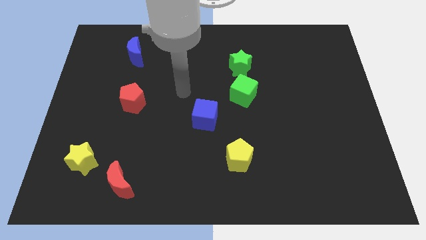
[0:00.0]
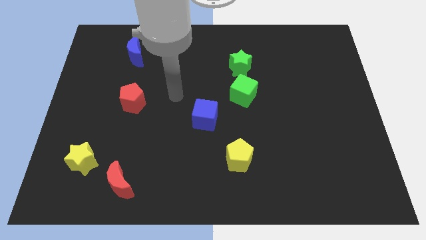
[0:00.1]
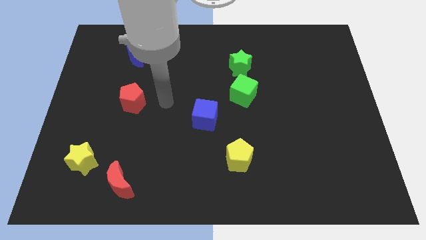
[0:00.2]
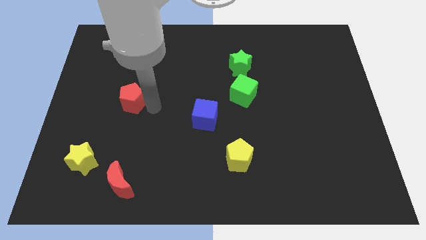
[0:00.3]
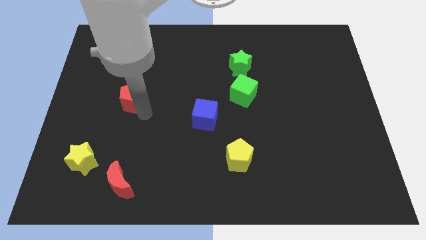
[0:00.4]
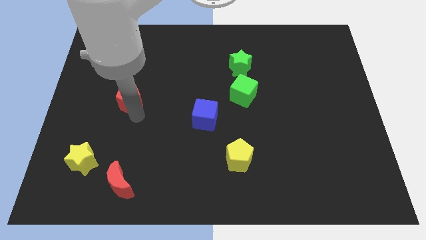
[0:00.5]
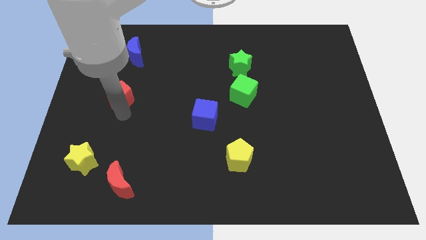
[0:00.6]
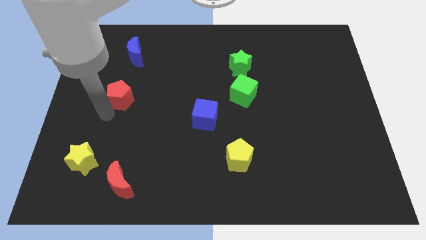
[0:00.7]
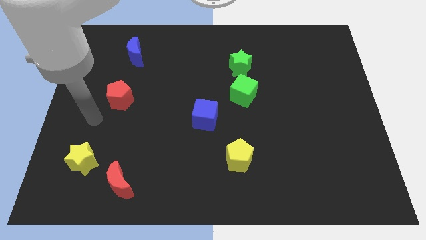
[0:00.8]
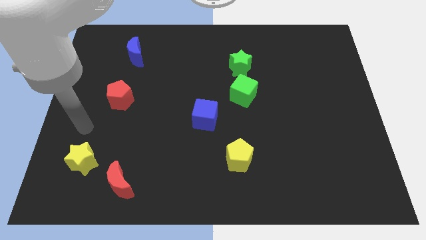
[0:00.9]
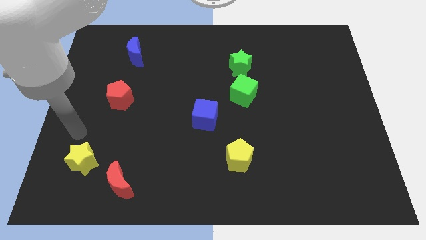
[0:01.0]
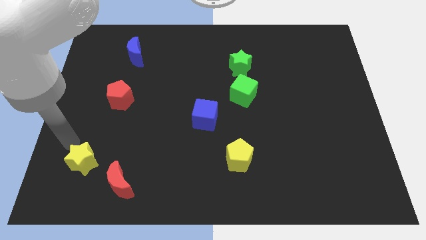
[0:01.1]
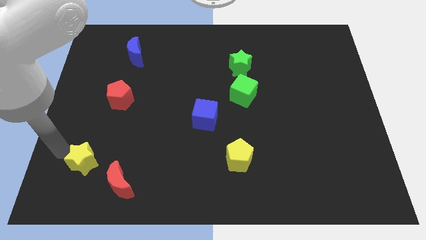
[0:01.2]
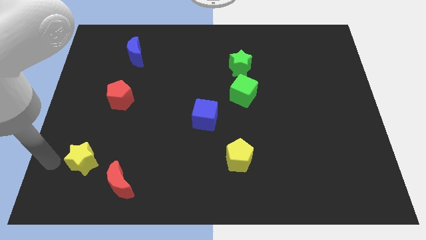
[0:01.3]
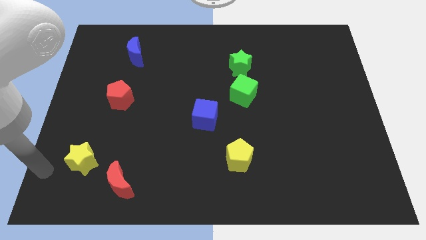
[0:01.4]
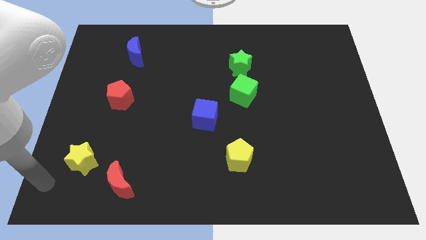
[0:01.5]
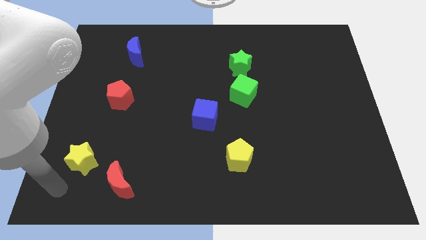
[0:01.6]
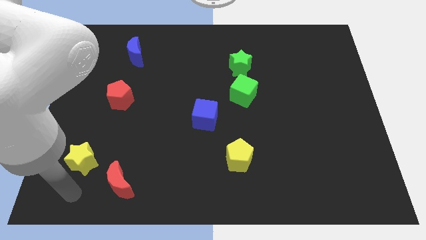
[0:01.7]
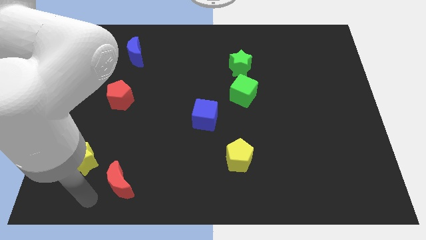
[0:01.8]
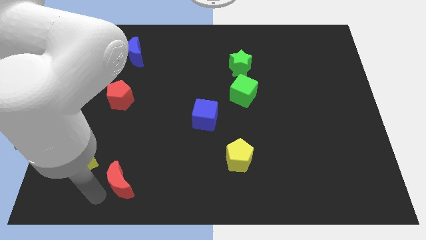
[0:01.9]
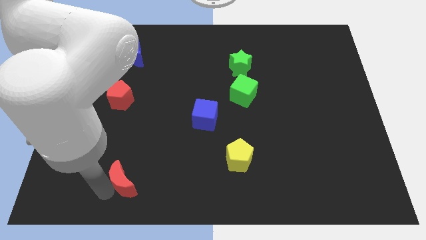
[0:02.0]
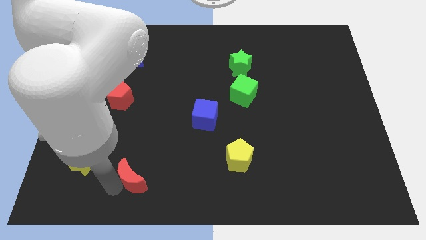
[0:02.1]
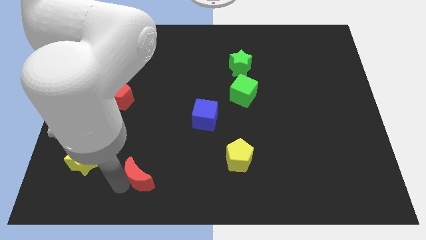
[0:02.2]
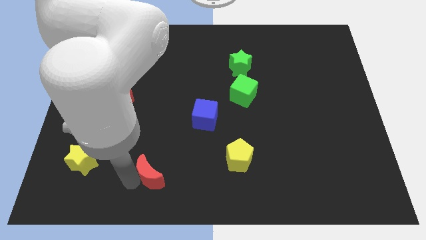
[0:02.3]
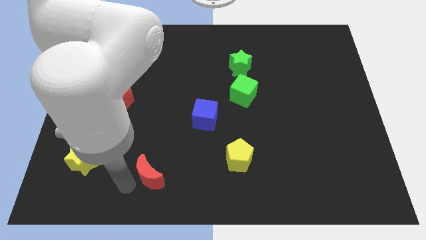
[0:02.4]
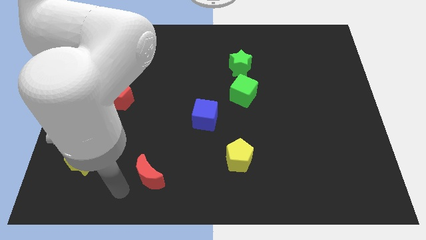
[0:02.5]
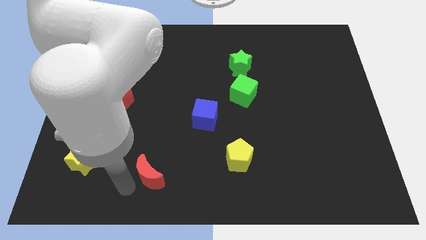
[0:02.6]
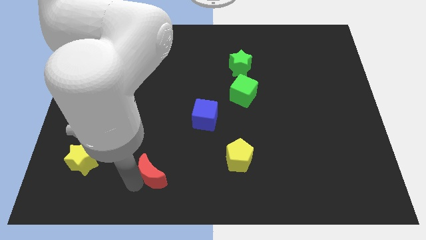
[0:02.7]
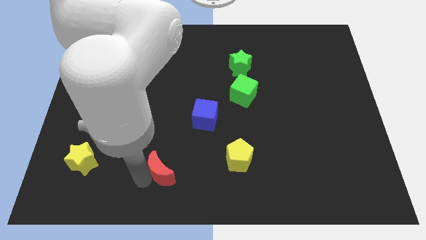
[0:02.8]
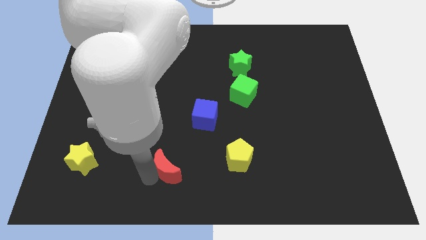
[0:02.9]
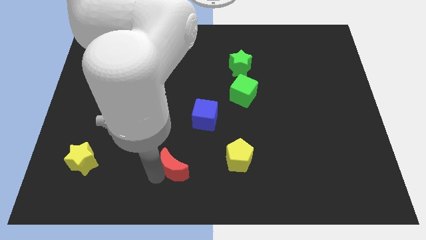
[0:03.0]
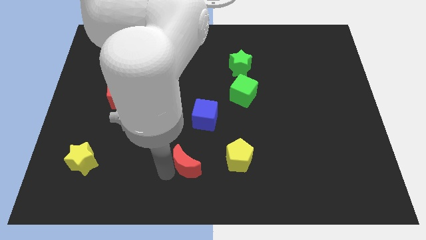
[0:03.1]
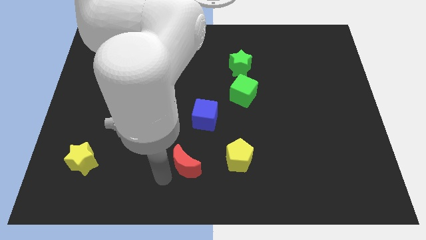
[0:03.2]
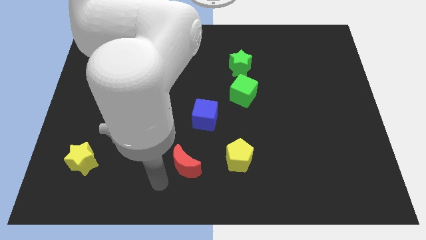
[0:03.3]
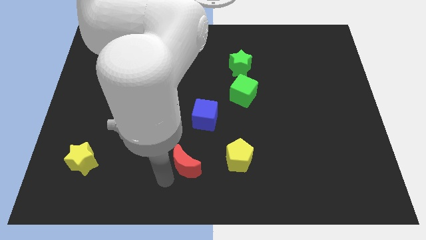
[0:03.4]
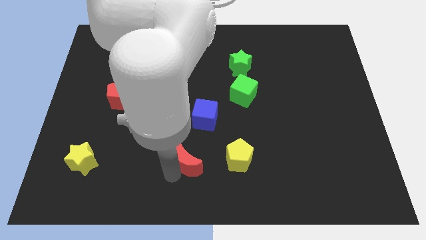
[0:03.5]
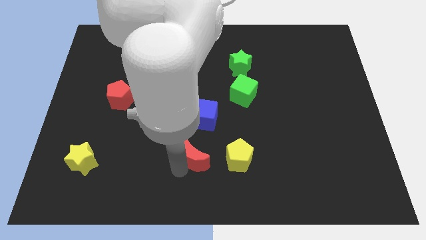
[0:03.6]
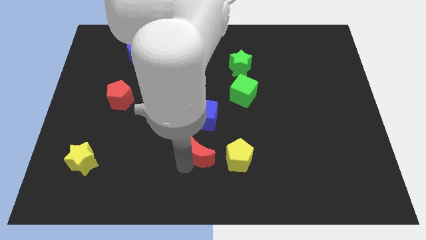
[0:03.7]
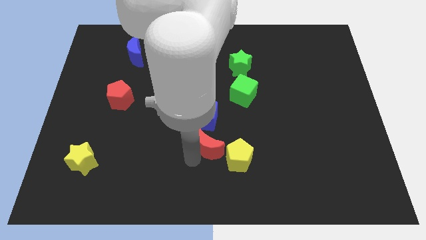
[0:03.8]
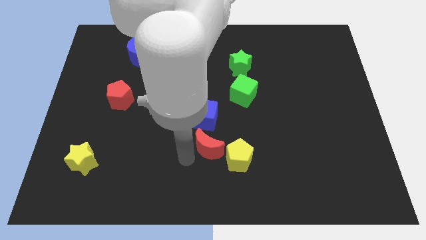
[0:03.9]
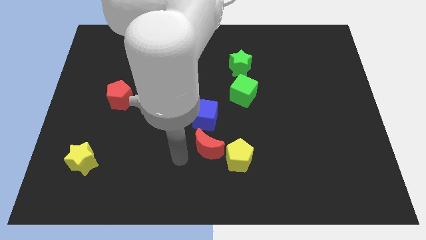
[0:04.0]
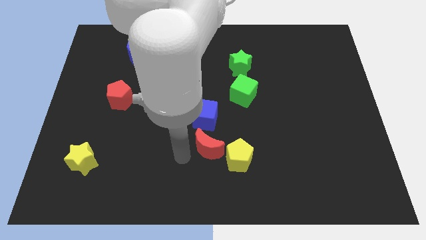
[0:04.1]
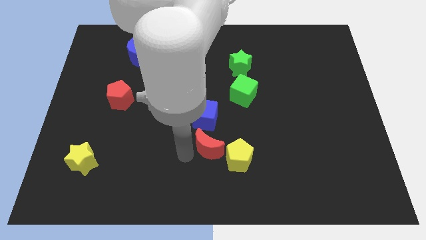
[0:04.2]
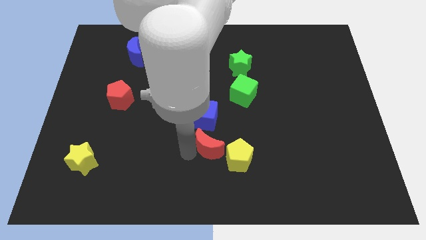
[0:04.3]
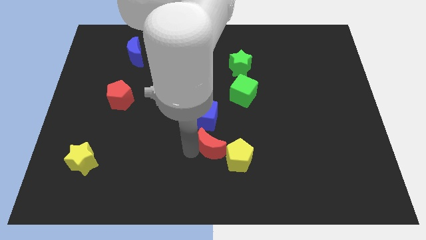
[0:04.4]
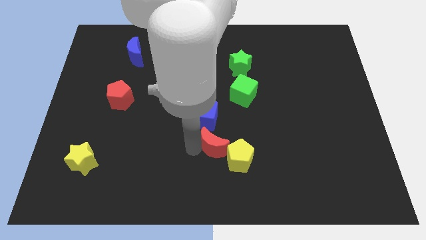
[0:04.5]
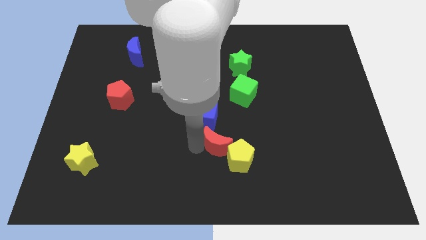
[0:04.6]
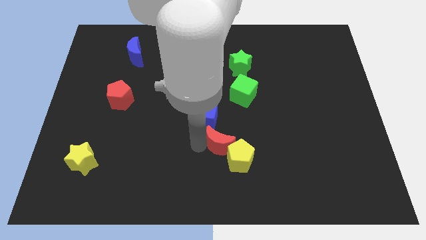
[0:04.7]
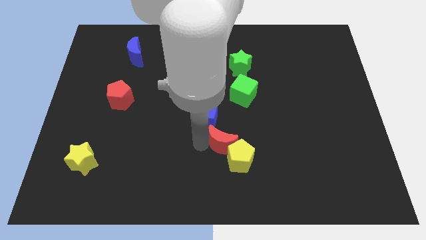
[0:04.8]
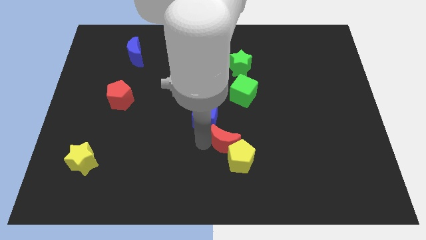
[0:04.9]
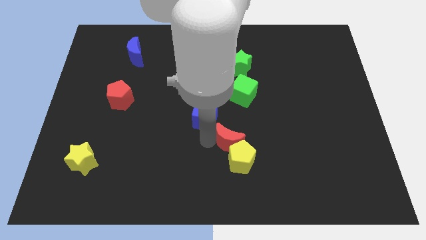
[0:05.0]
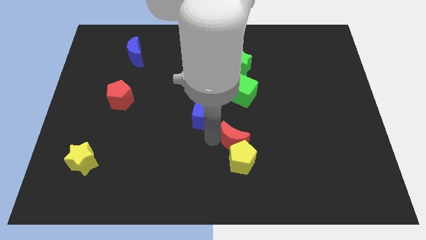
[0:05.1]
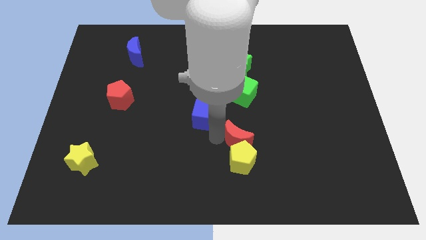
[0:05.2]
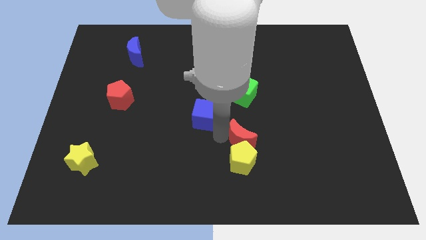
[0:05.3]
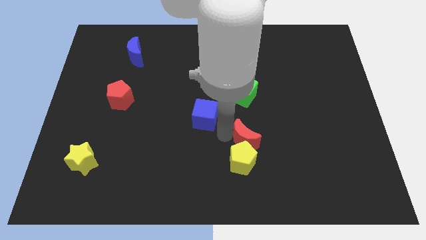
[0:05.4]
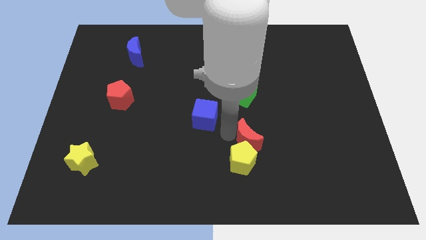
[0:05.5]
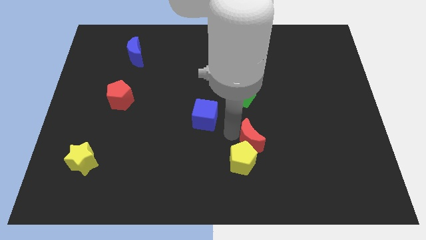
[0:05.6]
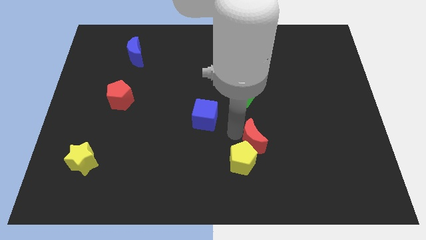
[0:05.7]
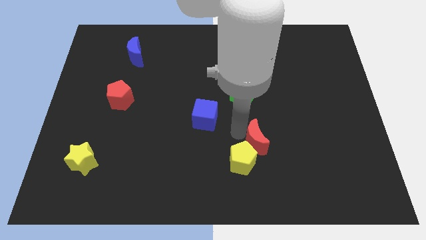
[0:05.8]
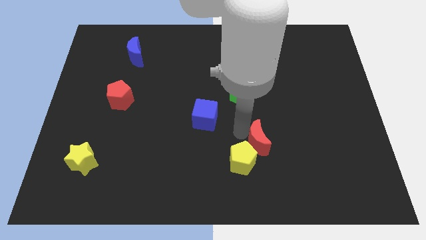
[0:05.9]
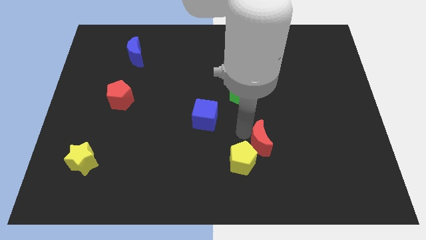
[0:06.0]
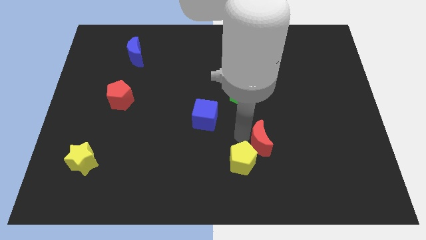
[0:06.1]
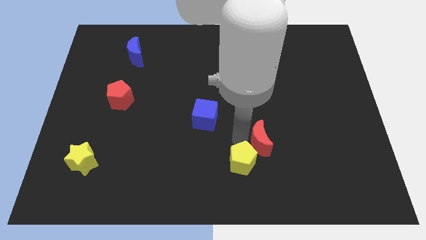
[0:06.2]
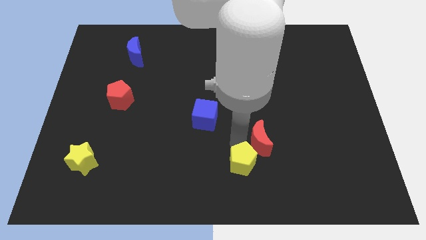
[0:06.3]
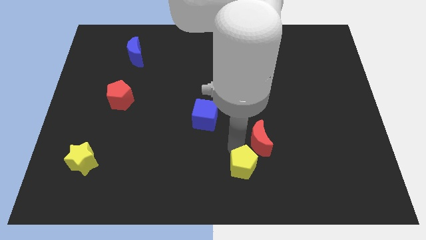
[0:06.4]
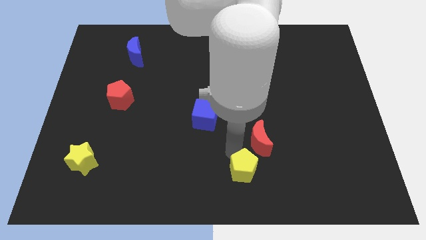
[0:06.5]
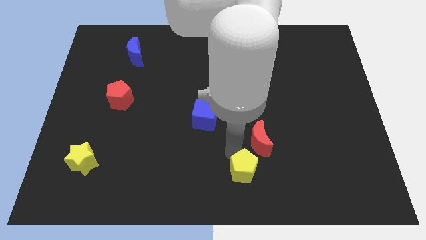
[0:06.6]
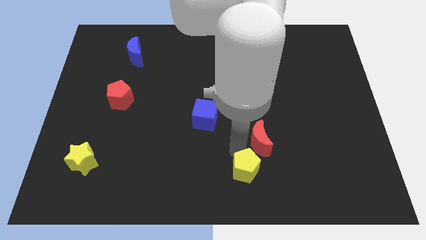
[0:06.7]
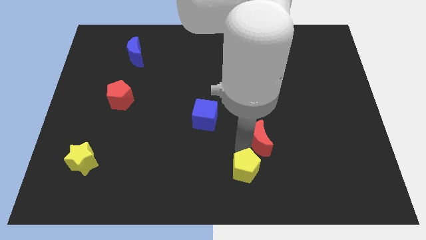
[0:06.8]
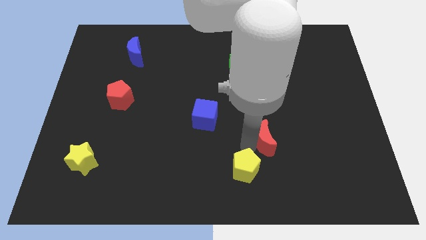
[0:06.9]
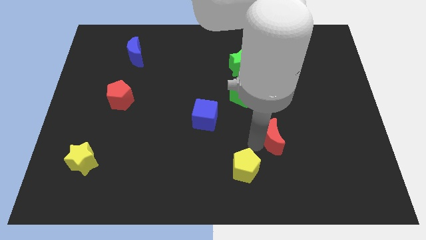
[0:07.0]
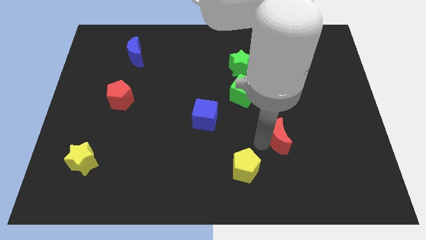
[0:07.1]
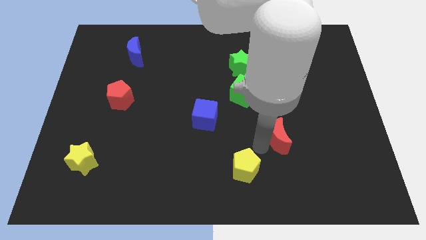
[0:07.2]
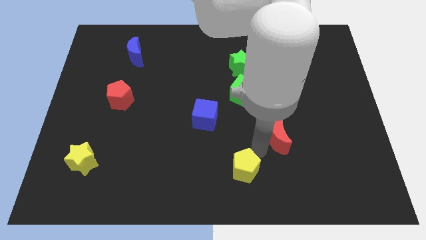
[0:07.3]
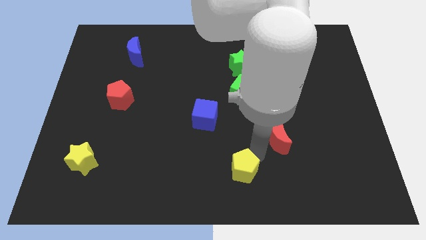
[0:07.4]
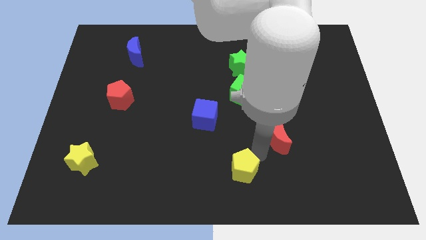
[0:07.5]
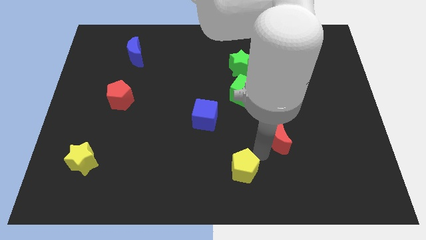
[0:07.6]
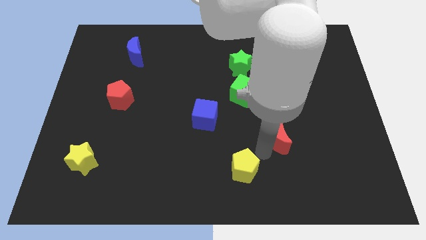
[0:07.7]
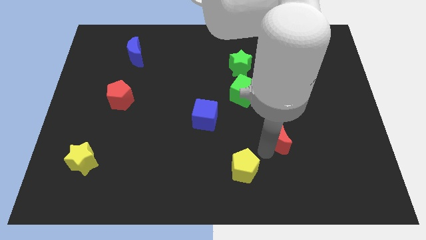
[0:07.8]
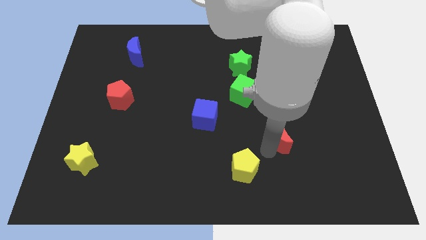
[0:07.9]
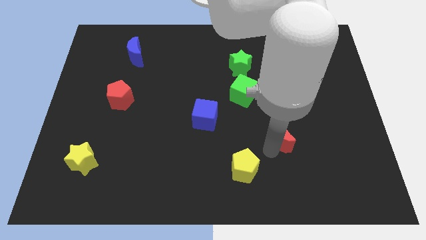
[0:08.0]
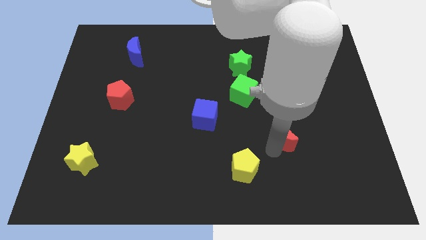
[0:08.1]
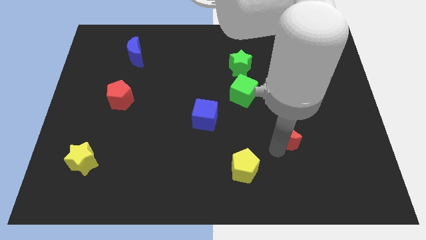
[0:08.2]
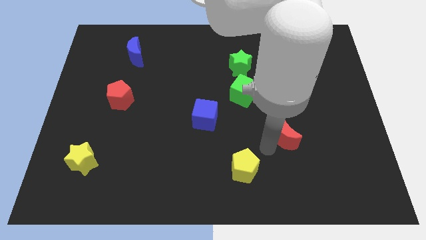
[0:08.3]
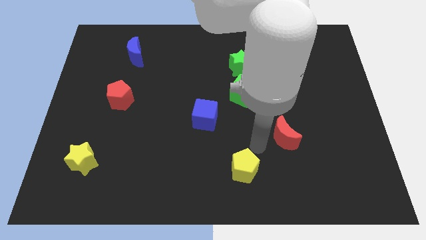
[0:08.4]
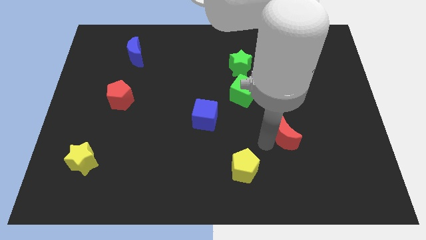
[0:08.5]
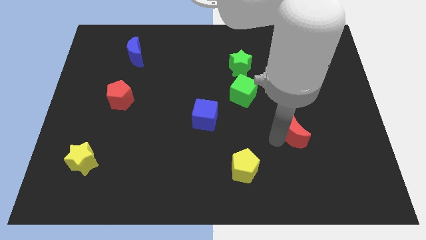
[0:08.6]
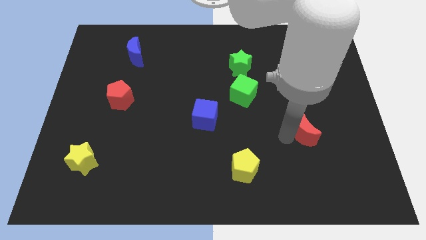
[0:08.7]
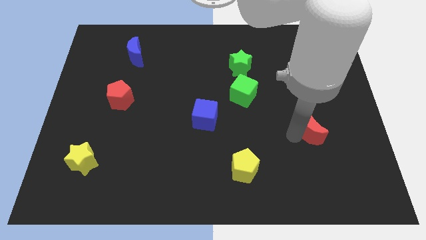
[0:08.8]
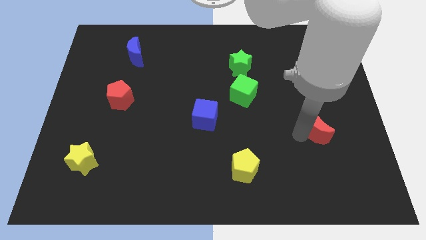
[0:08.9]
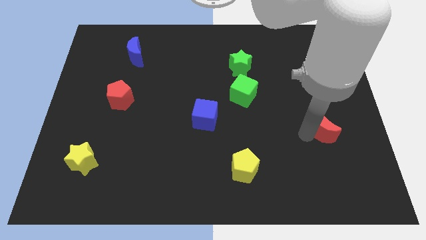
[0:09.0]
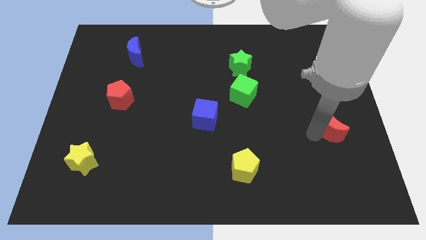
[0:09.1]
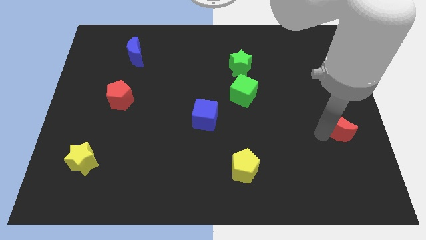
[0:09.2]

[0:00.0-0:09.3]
push the red moon to the right side of the board
